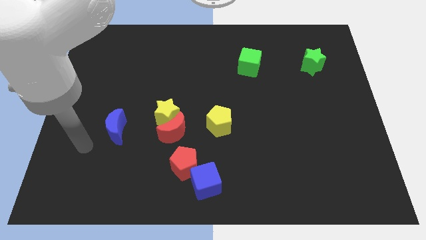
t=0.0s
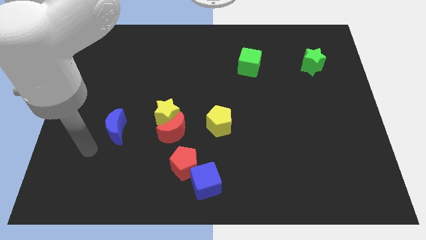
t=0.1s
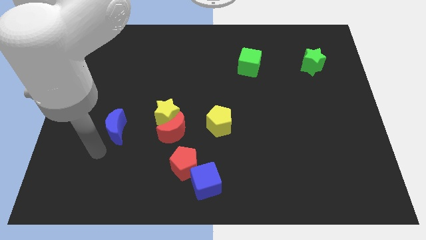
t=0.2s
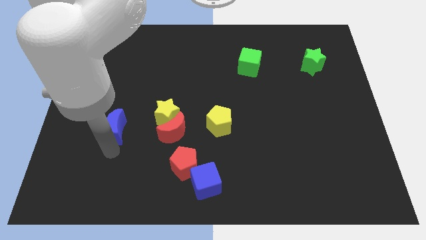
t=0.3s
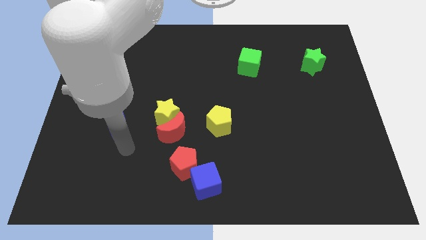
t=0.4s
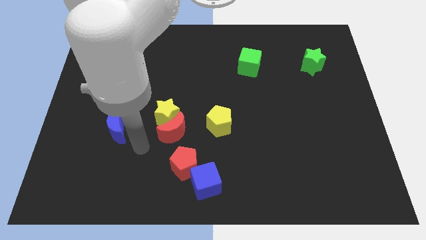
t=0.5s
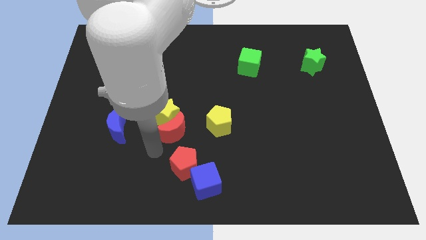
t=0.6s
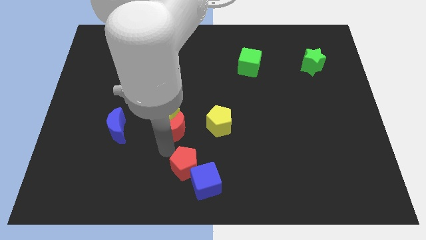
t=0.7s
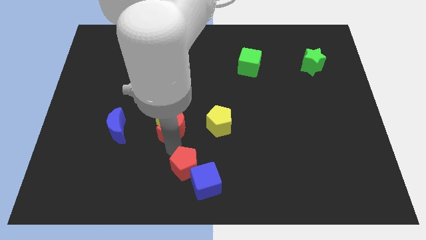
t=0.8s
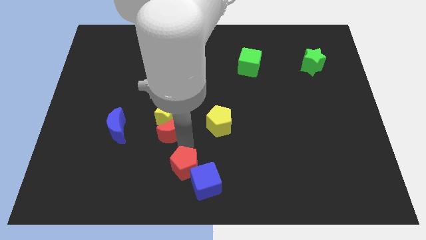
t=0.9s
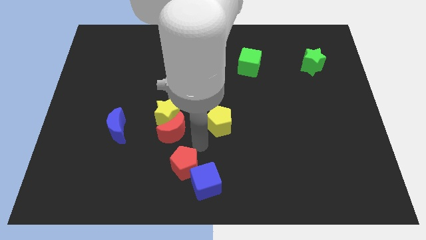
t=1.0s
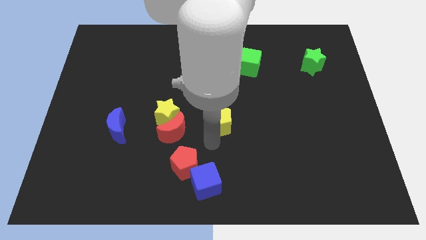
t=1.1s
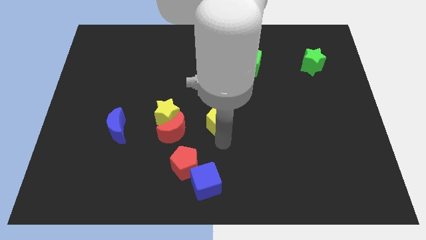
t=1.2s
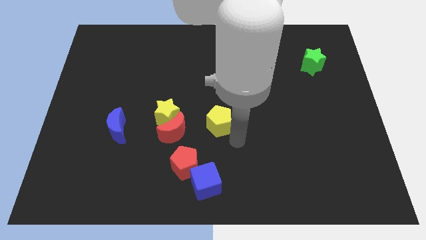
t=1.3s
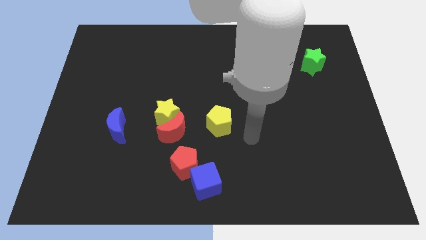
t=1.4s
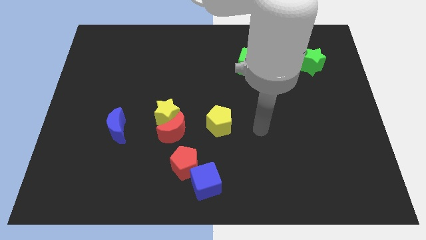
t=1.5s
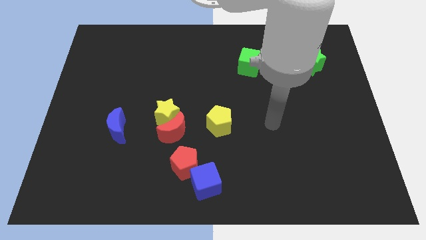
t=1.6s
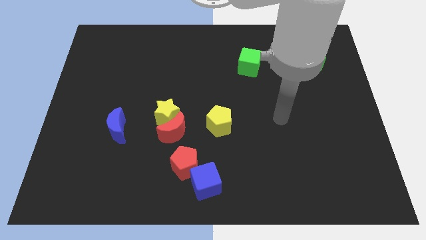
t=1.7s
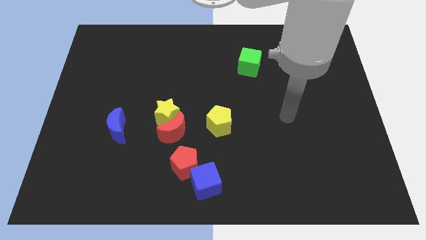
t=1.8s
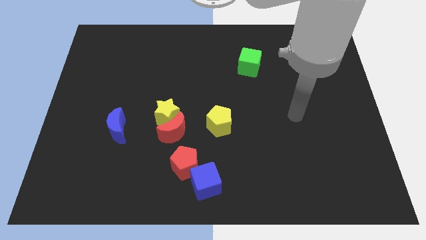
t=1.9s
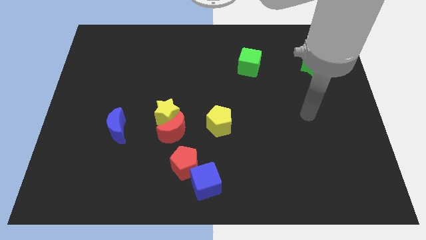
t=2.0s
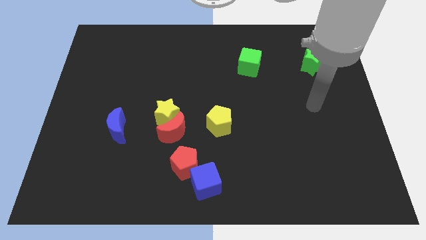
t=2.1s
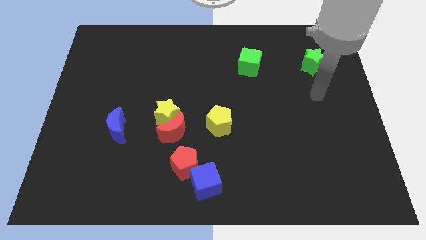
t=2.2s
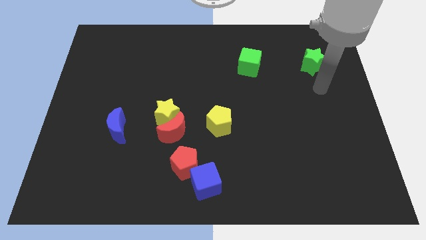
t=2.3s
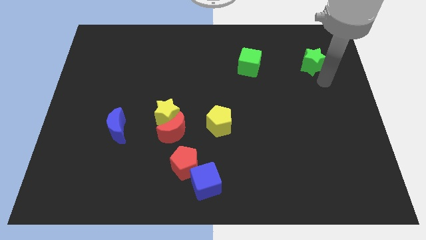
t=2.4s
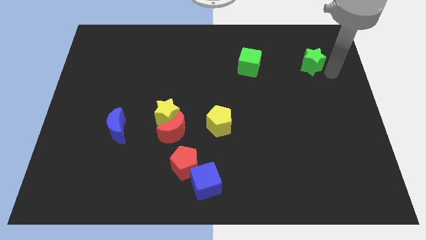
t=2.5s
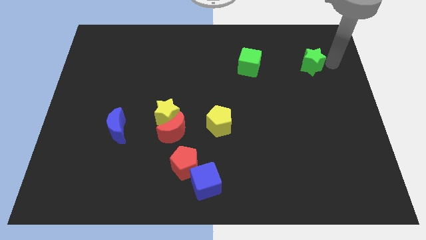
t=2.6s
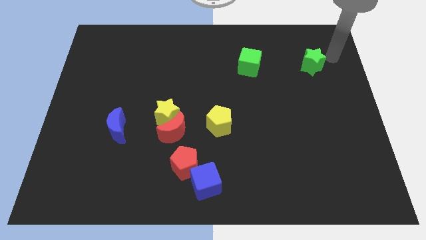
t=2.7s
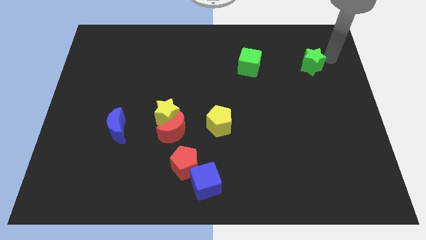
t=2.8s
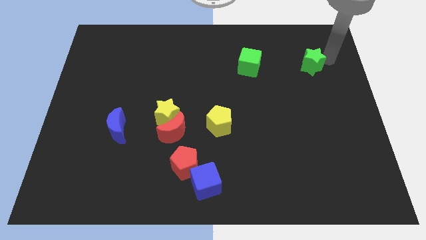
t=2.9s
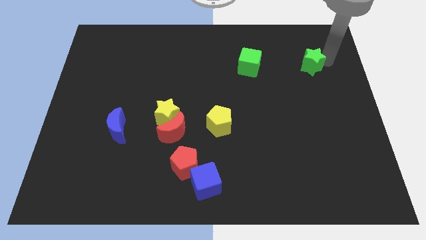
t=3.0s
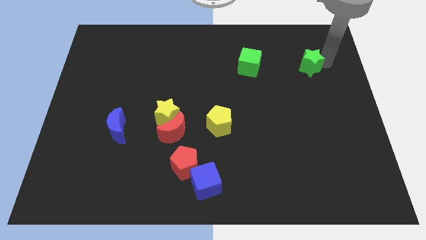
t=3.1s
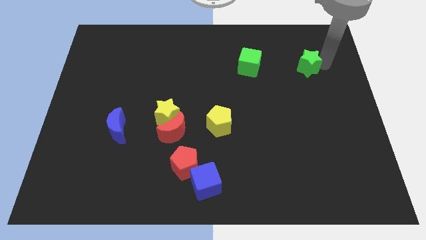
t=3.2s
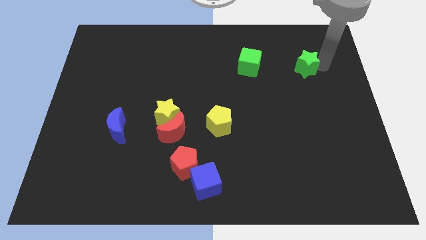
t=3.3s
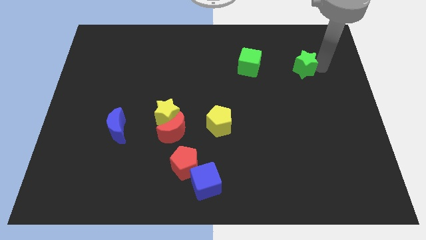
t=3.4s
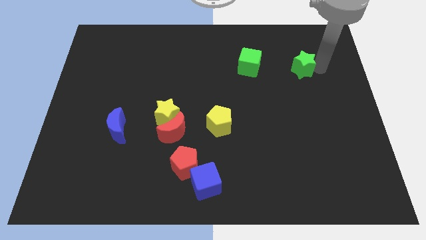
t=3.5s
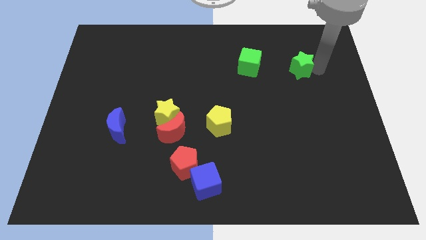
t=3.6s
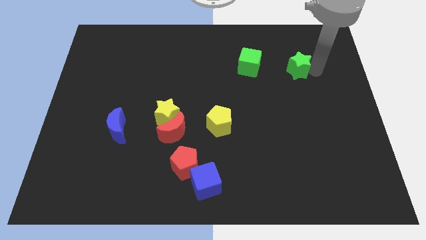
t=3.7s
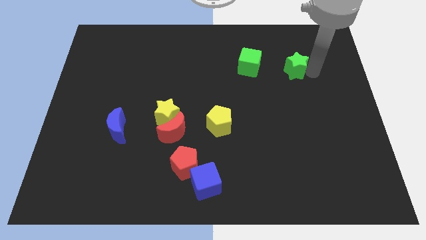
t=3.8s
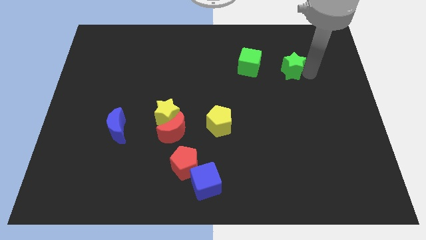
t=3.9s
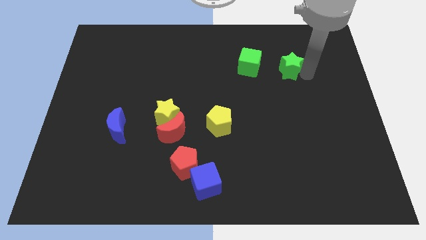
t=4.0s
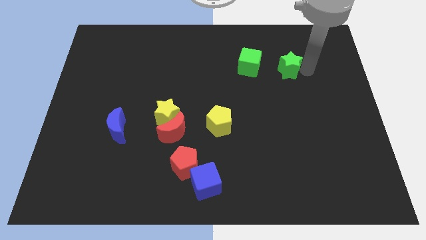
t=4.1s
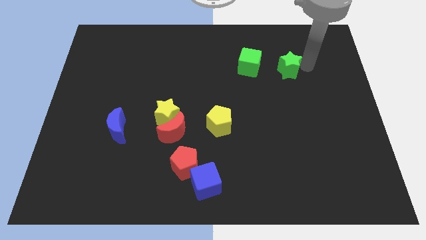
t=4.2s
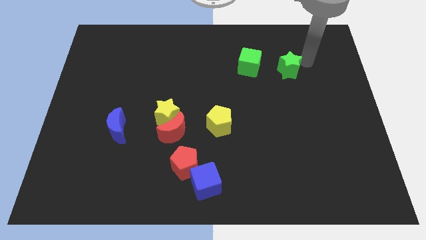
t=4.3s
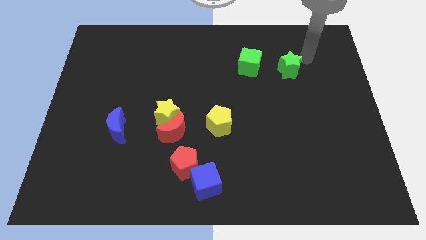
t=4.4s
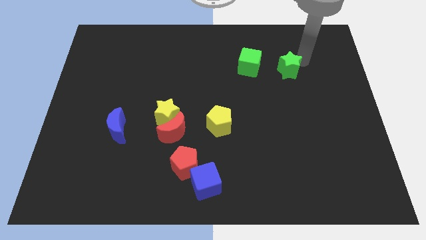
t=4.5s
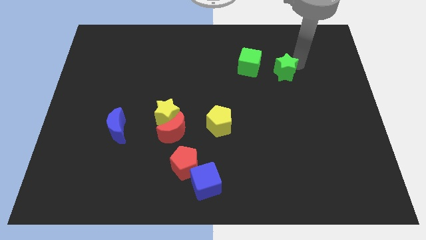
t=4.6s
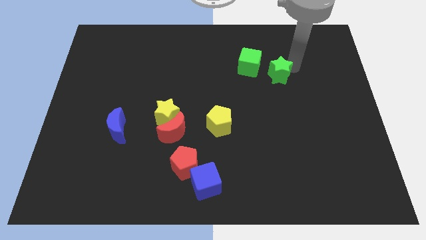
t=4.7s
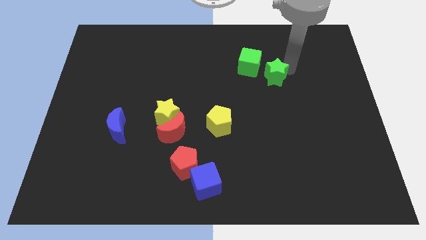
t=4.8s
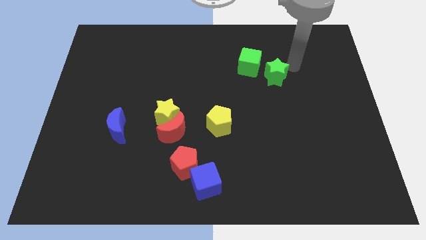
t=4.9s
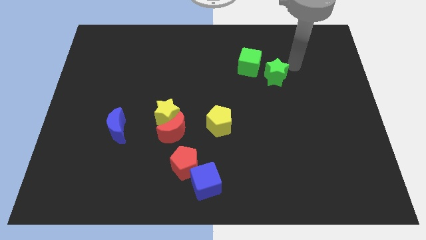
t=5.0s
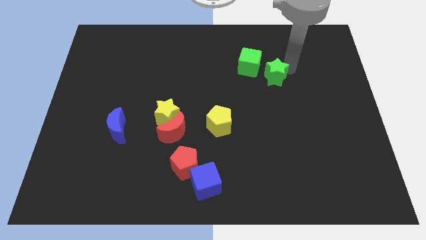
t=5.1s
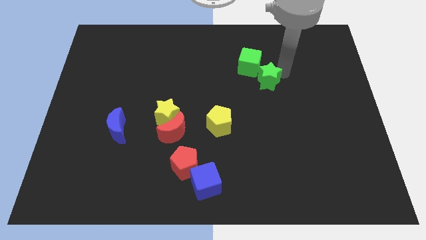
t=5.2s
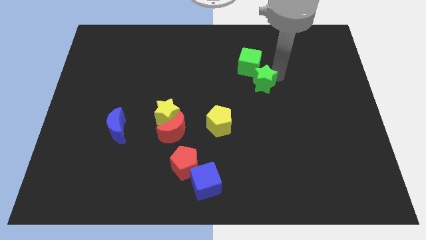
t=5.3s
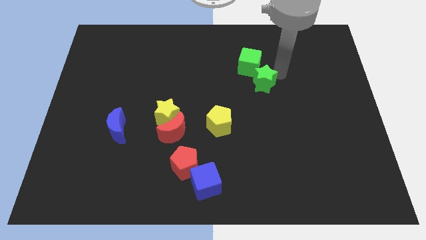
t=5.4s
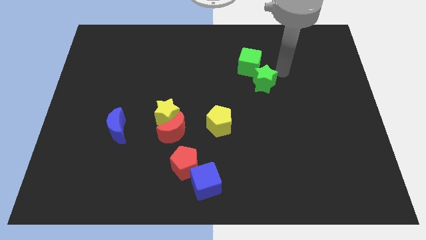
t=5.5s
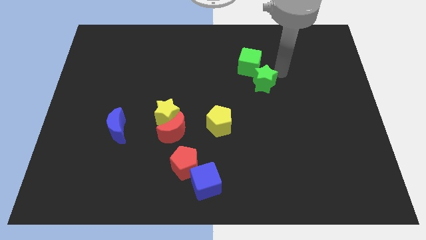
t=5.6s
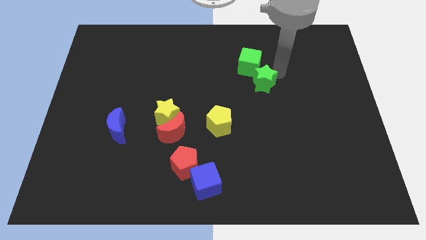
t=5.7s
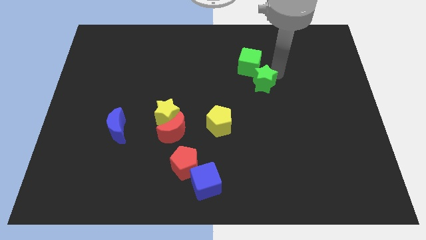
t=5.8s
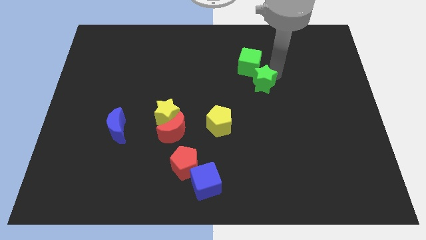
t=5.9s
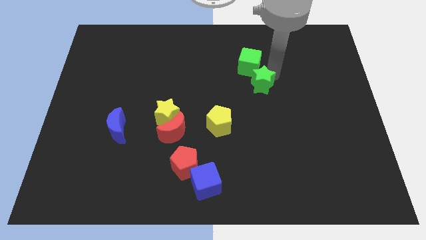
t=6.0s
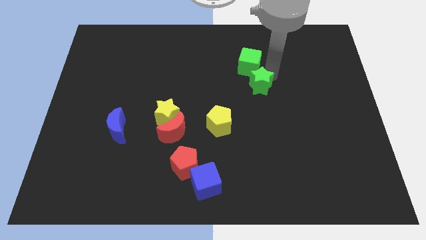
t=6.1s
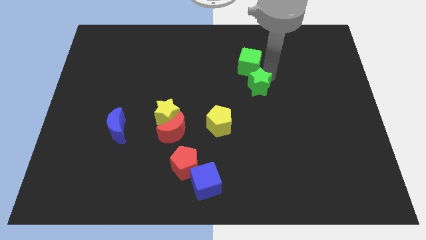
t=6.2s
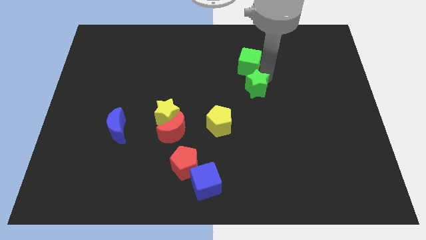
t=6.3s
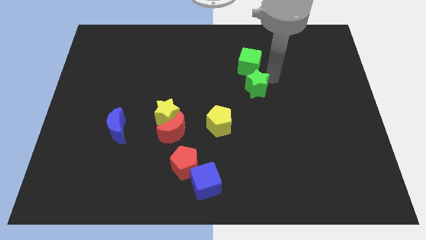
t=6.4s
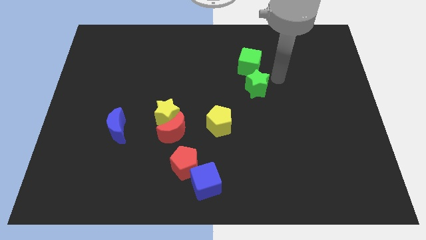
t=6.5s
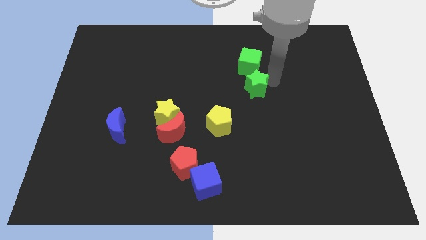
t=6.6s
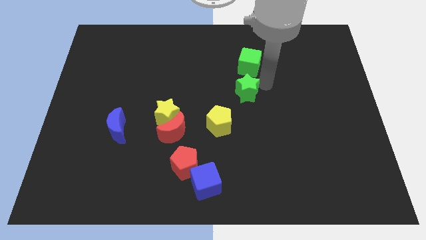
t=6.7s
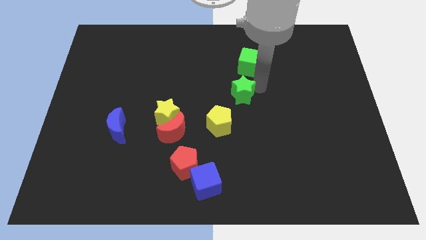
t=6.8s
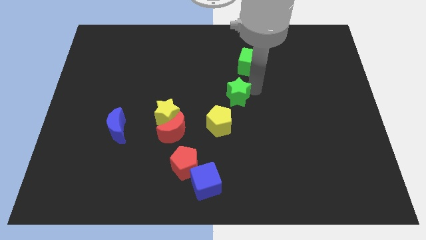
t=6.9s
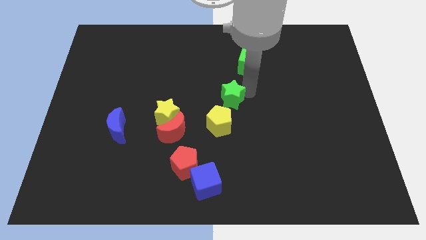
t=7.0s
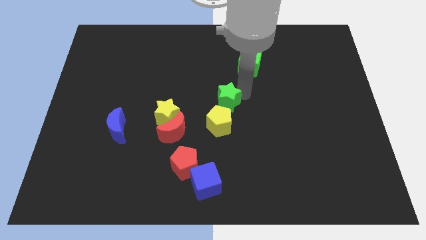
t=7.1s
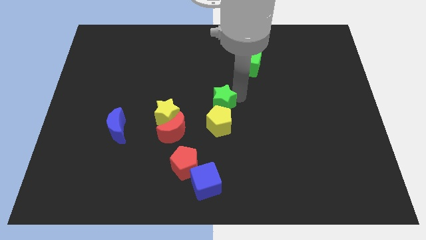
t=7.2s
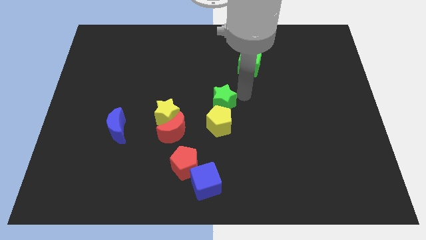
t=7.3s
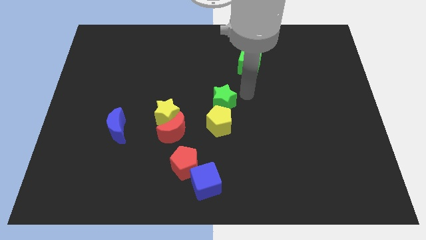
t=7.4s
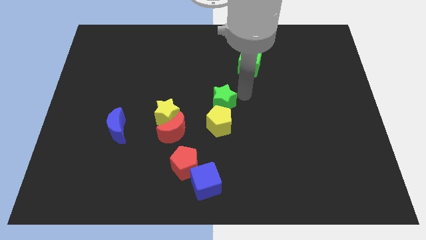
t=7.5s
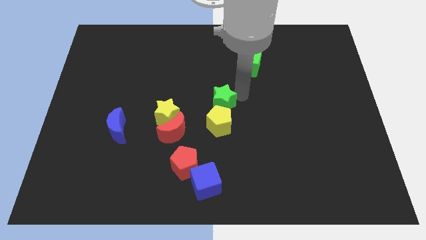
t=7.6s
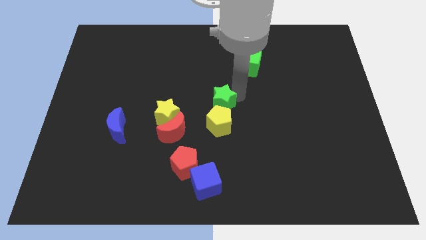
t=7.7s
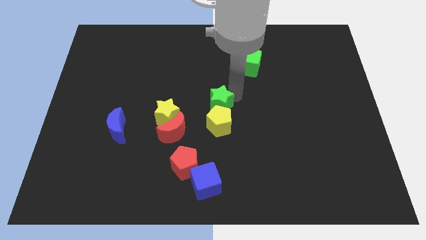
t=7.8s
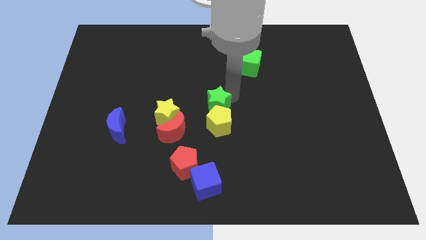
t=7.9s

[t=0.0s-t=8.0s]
slide the green star diagonally up and to the right of the red moon
